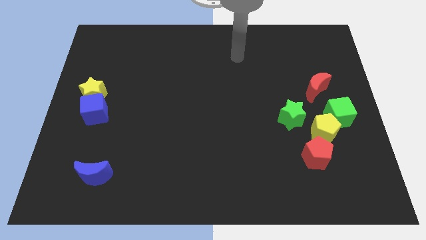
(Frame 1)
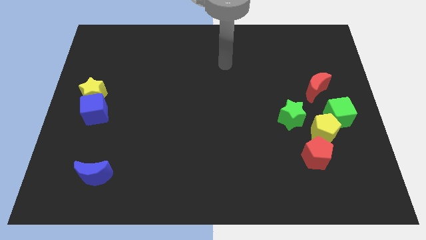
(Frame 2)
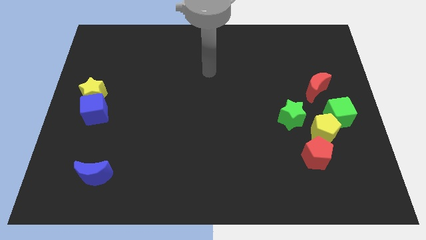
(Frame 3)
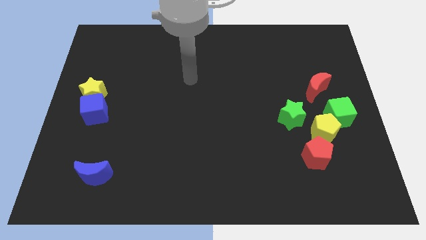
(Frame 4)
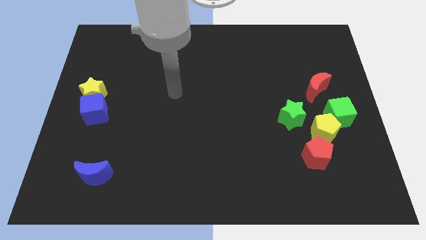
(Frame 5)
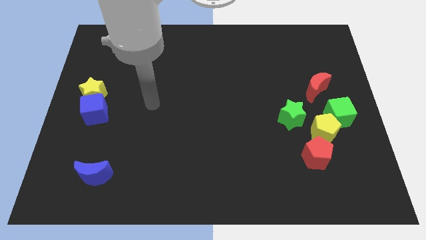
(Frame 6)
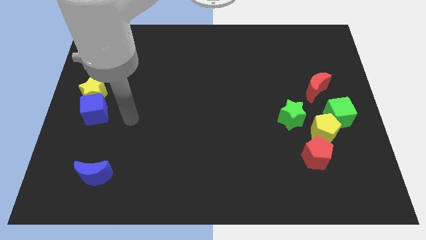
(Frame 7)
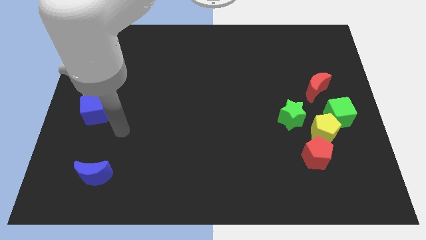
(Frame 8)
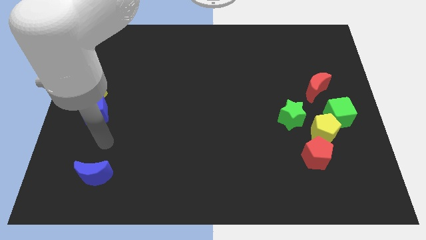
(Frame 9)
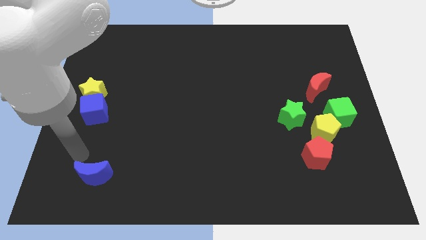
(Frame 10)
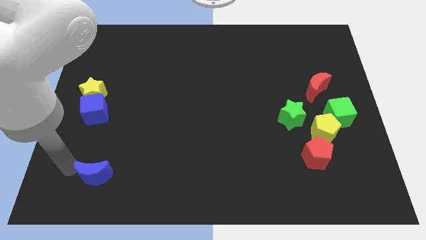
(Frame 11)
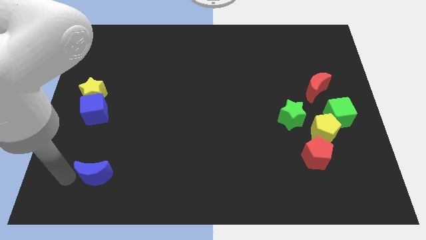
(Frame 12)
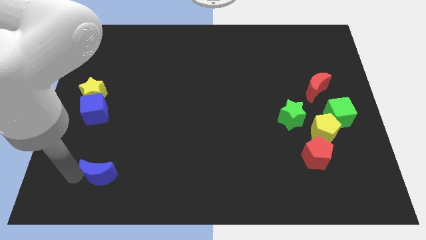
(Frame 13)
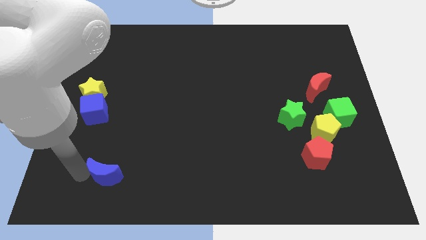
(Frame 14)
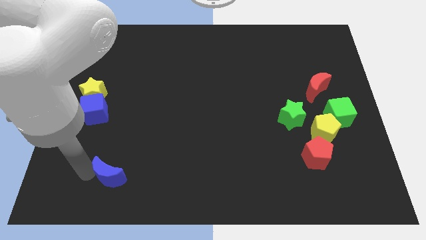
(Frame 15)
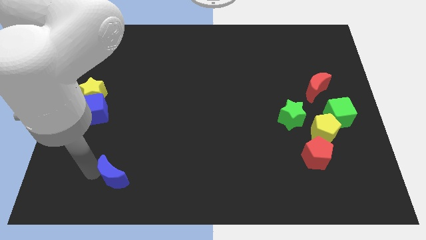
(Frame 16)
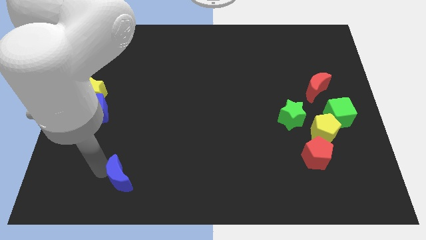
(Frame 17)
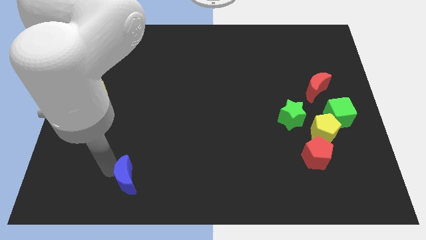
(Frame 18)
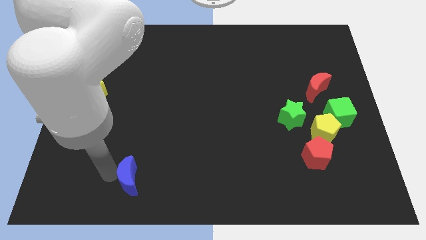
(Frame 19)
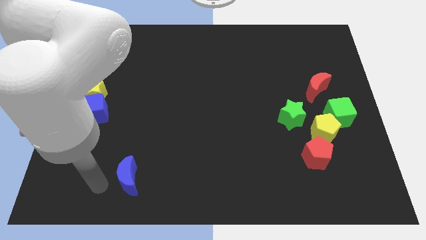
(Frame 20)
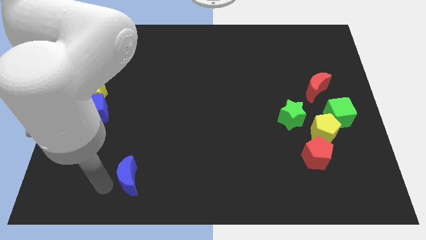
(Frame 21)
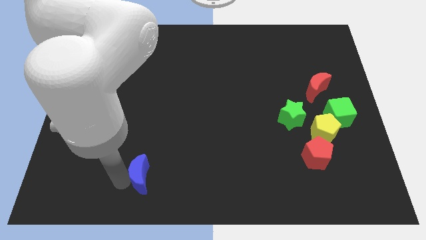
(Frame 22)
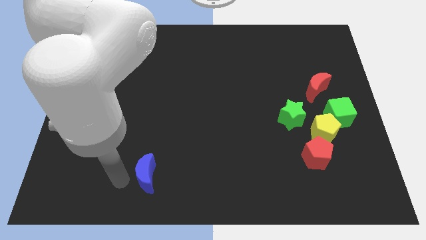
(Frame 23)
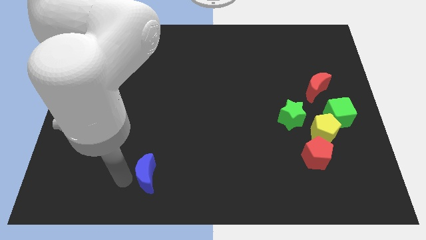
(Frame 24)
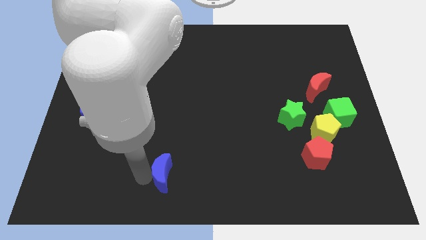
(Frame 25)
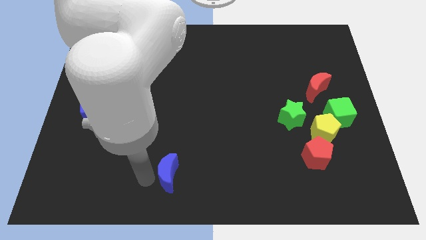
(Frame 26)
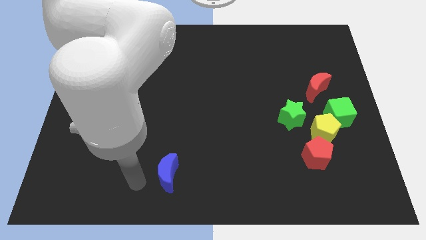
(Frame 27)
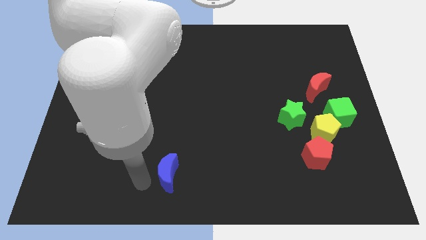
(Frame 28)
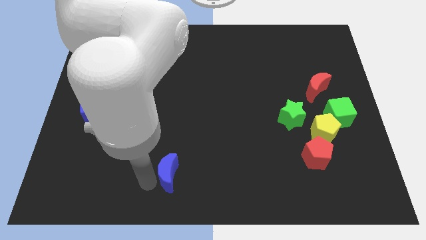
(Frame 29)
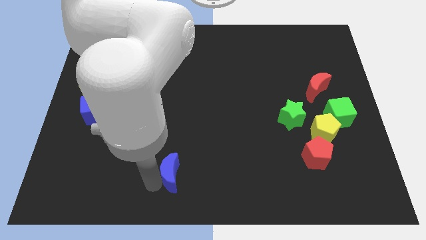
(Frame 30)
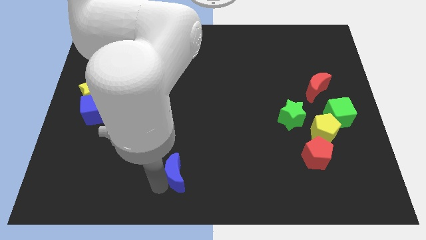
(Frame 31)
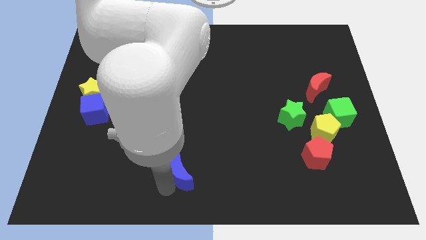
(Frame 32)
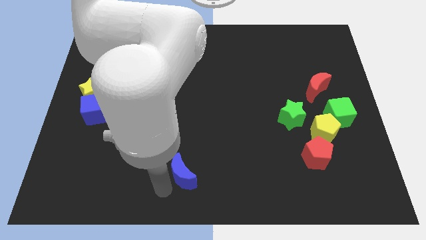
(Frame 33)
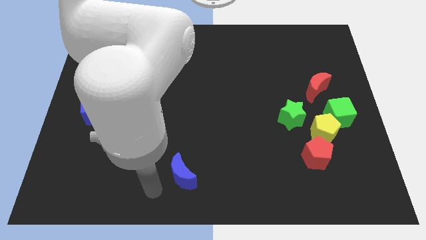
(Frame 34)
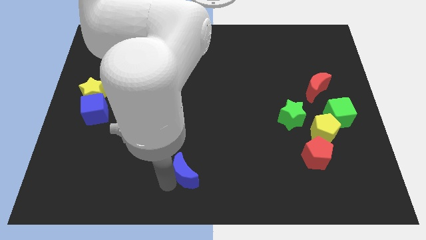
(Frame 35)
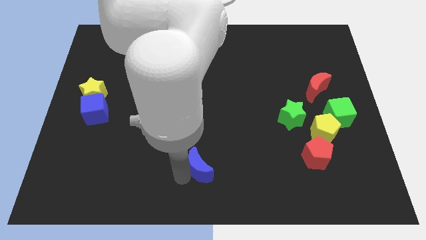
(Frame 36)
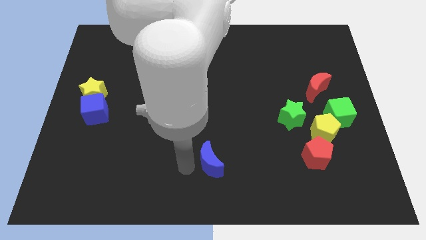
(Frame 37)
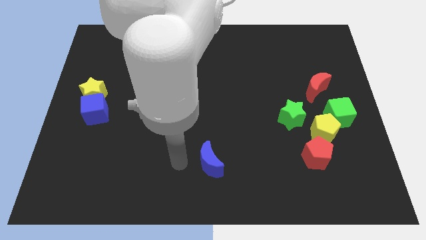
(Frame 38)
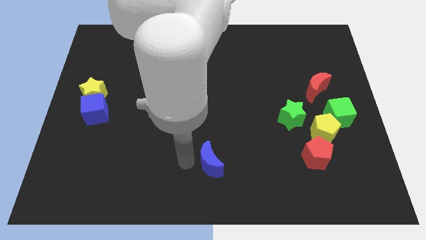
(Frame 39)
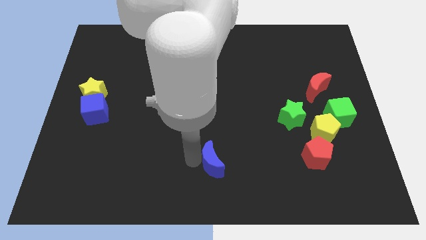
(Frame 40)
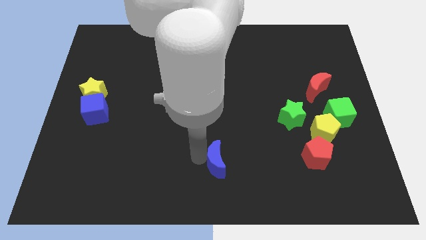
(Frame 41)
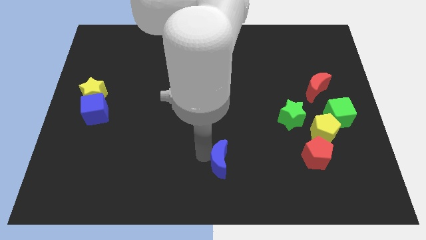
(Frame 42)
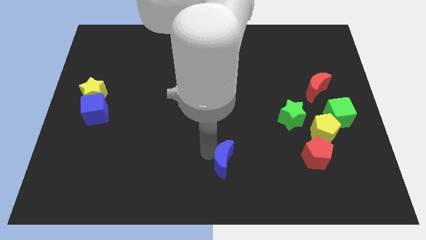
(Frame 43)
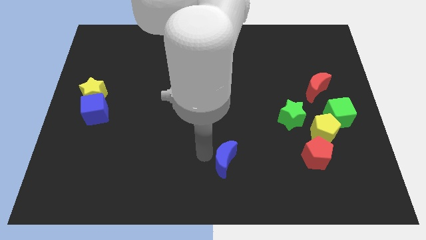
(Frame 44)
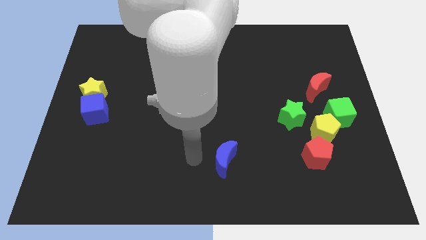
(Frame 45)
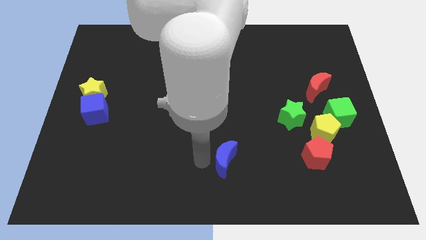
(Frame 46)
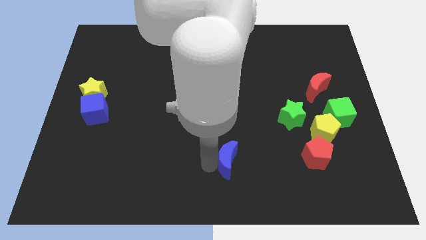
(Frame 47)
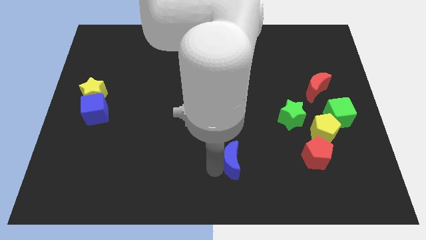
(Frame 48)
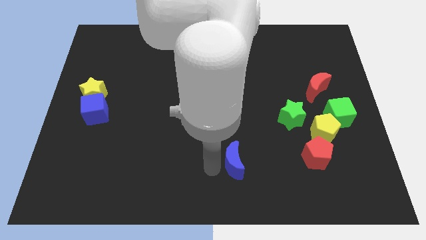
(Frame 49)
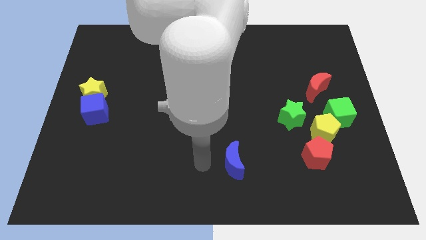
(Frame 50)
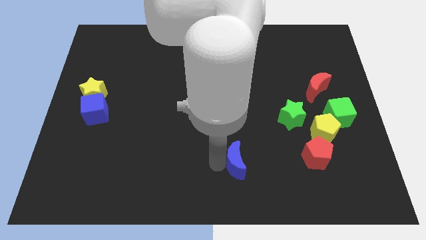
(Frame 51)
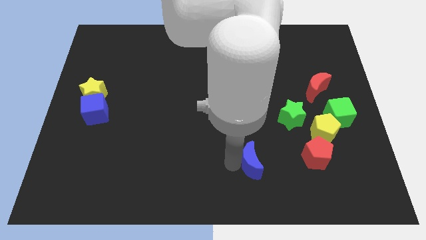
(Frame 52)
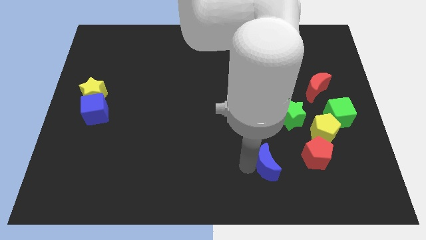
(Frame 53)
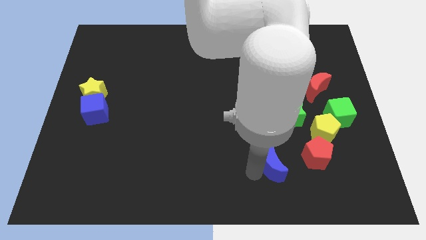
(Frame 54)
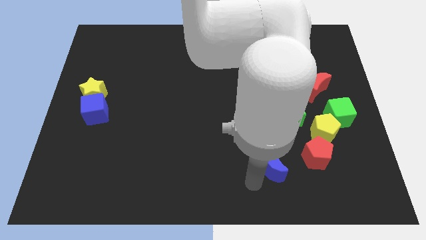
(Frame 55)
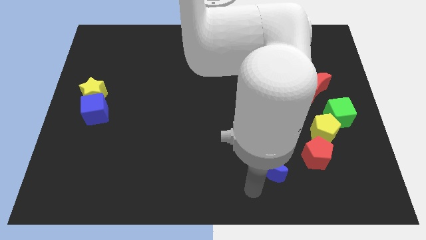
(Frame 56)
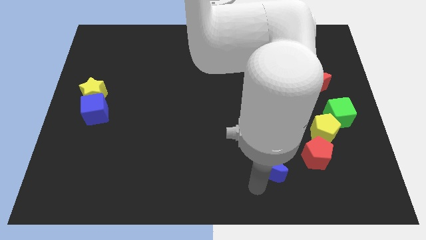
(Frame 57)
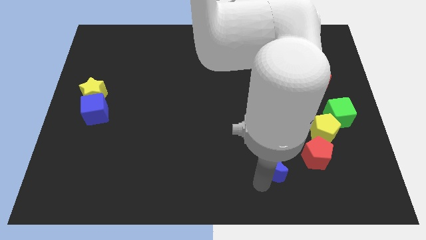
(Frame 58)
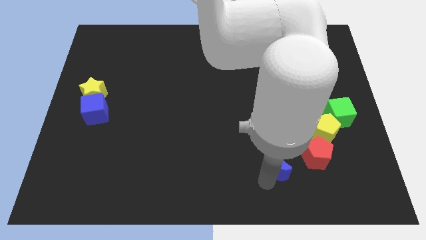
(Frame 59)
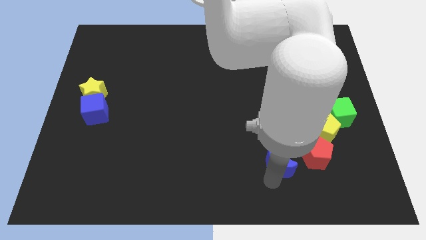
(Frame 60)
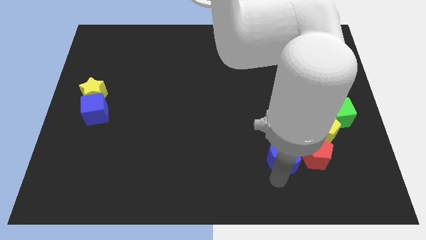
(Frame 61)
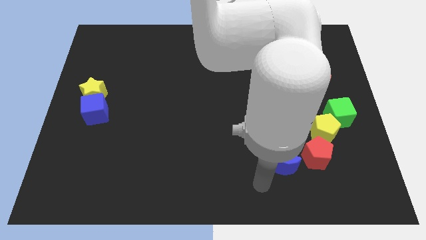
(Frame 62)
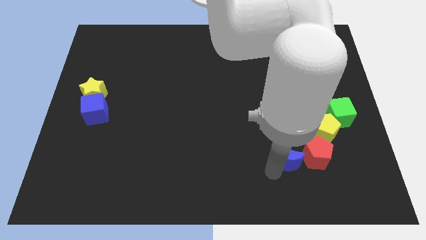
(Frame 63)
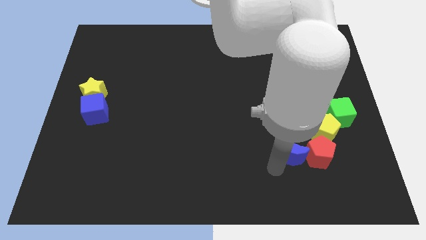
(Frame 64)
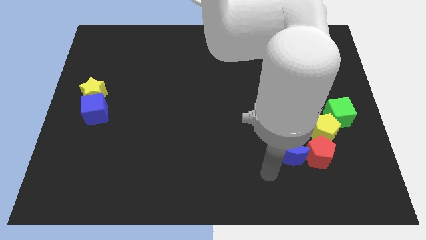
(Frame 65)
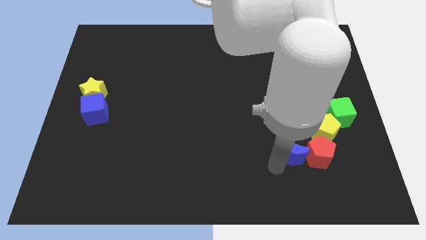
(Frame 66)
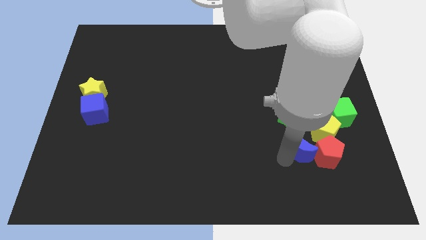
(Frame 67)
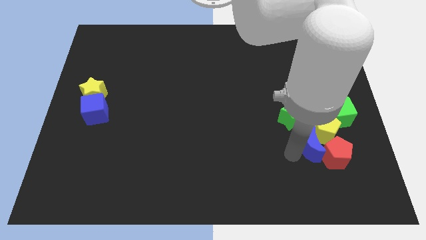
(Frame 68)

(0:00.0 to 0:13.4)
push the blue moon towards the yellow pentagon

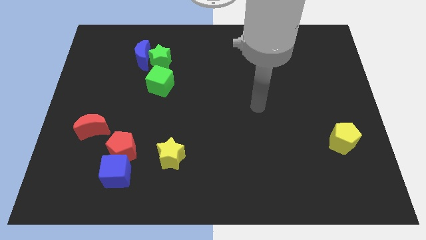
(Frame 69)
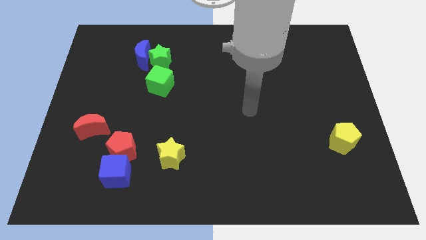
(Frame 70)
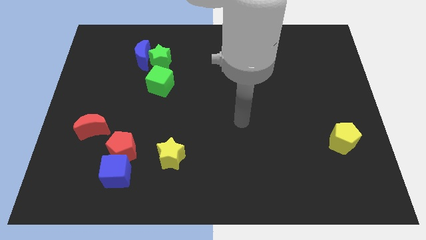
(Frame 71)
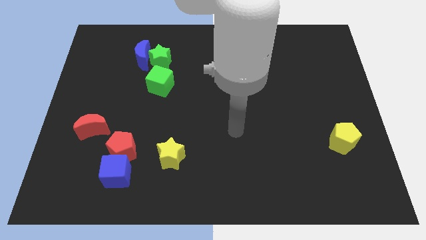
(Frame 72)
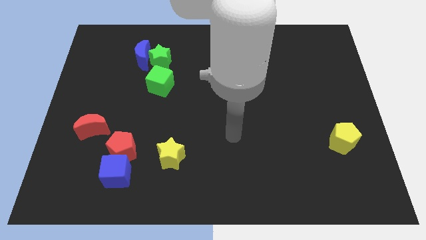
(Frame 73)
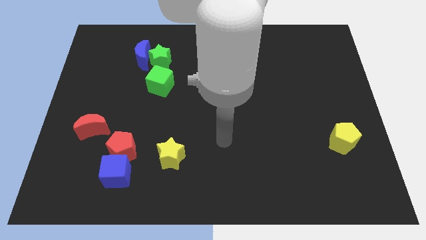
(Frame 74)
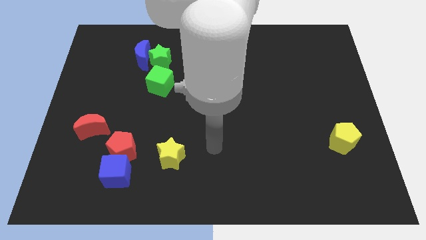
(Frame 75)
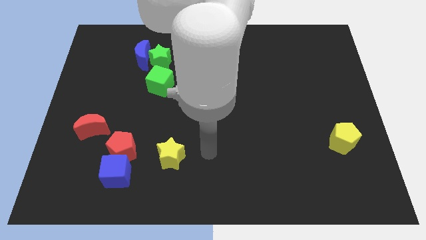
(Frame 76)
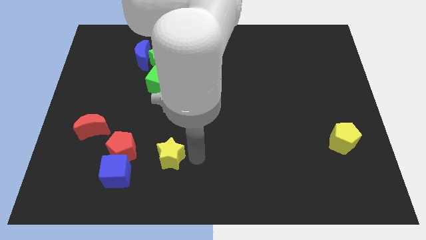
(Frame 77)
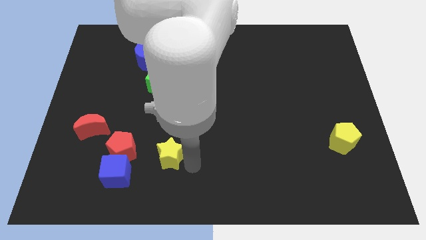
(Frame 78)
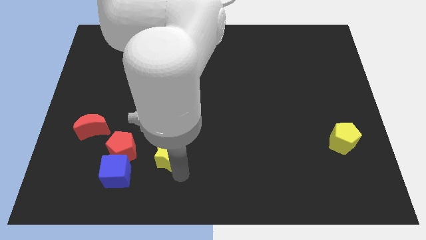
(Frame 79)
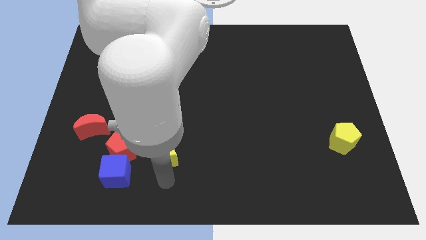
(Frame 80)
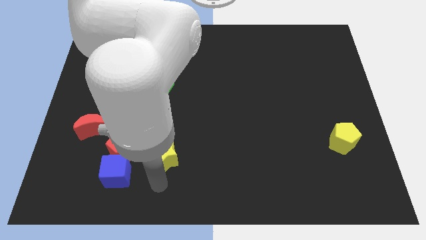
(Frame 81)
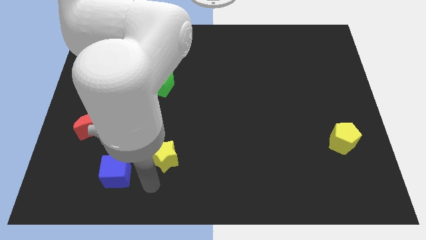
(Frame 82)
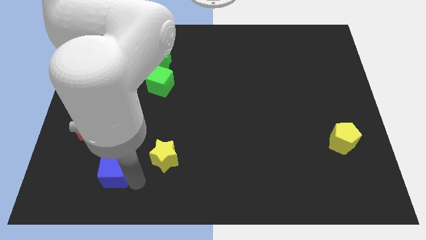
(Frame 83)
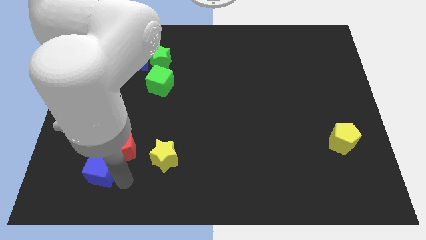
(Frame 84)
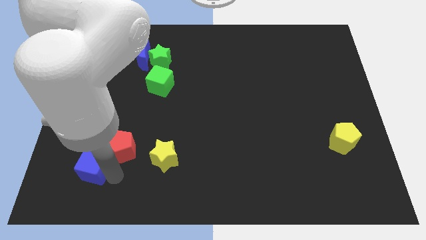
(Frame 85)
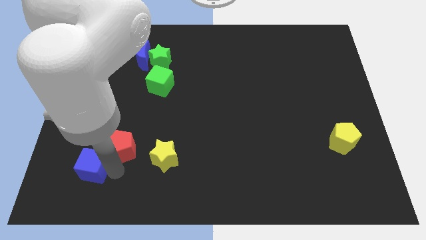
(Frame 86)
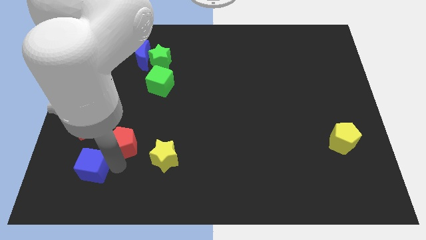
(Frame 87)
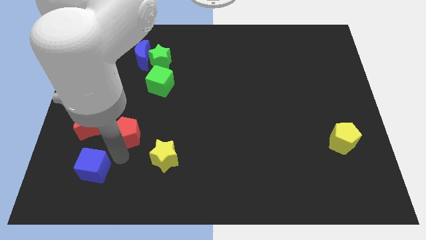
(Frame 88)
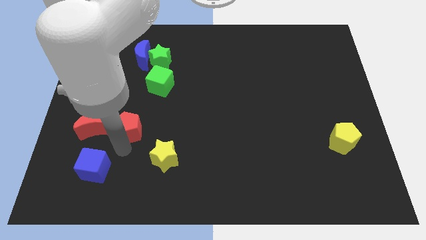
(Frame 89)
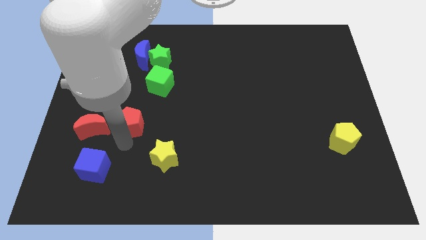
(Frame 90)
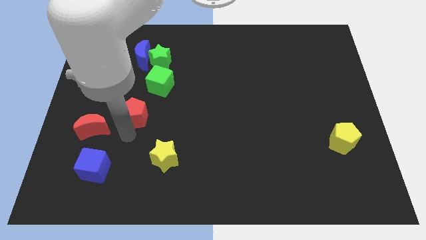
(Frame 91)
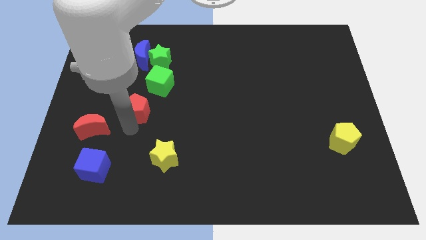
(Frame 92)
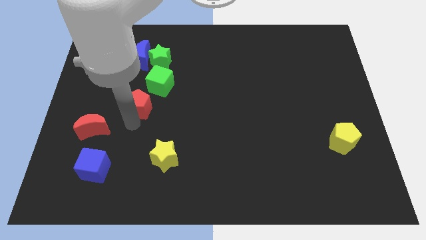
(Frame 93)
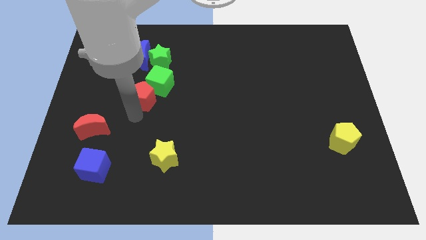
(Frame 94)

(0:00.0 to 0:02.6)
put the red pentagon close to the green cube
